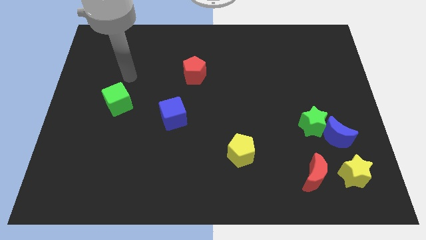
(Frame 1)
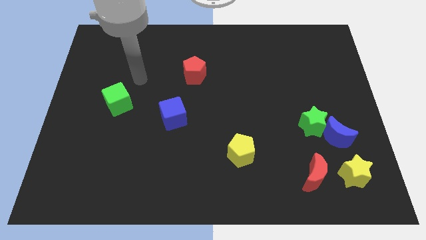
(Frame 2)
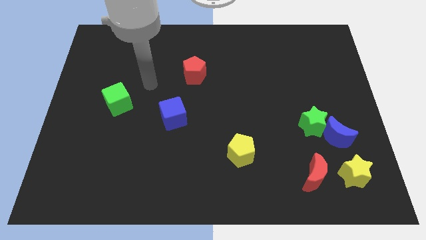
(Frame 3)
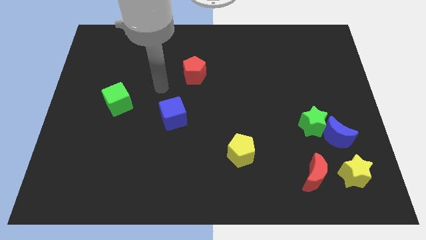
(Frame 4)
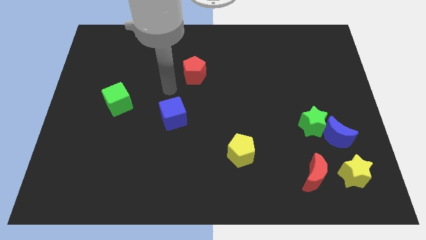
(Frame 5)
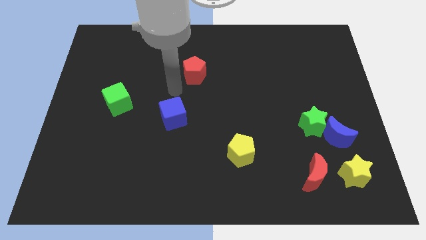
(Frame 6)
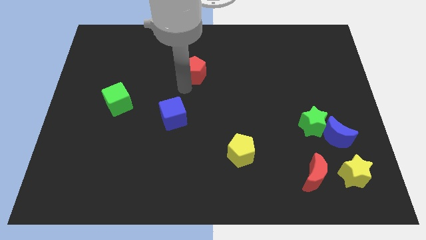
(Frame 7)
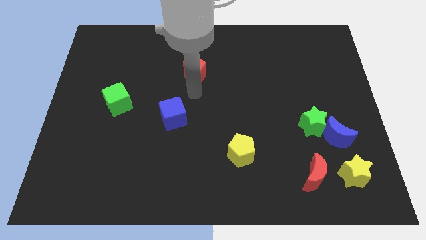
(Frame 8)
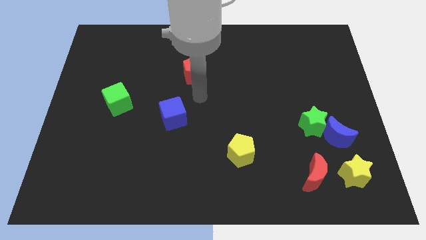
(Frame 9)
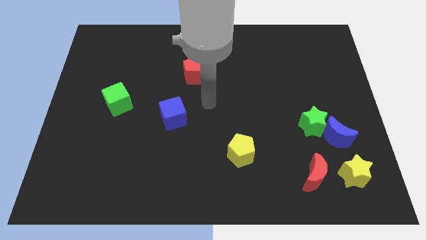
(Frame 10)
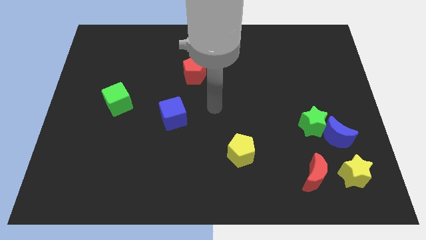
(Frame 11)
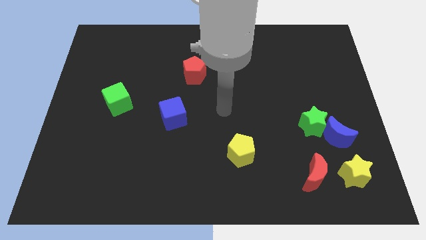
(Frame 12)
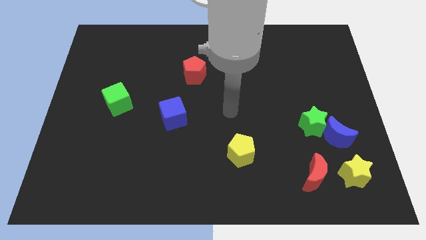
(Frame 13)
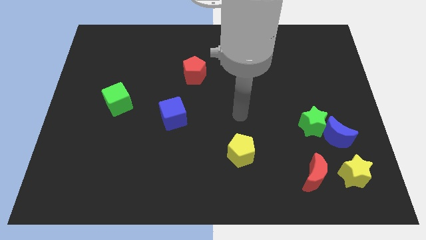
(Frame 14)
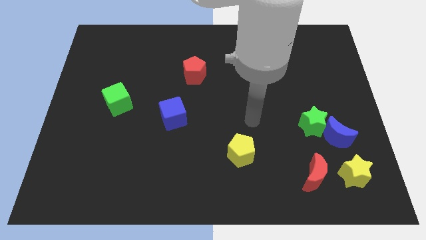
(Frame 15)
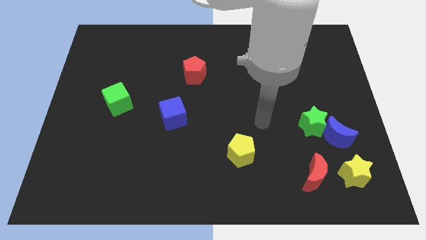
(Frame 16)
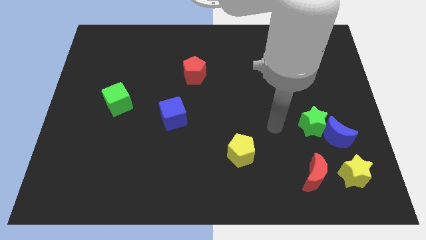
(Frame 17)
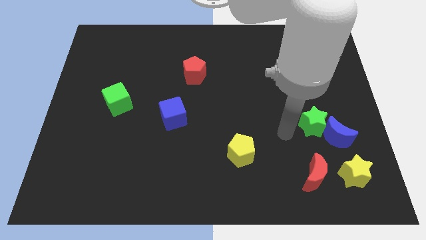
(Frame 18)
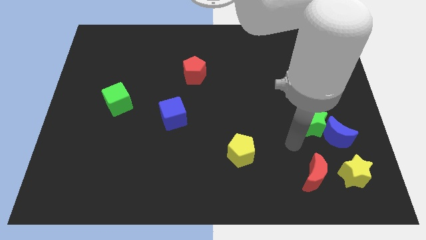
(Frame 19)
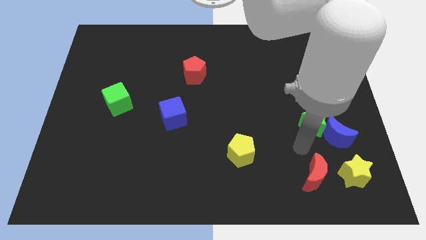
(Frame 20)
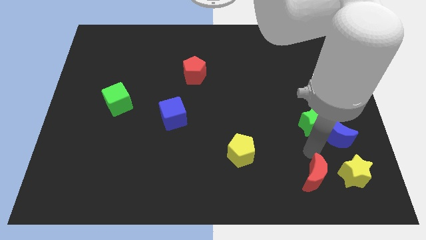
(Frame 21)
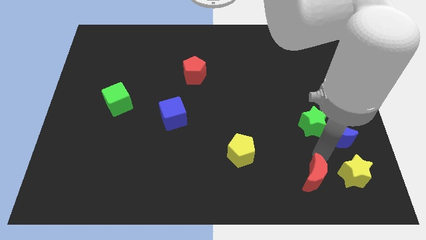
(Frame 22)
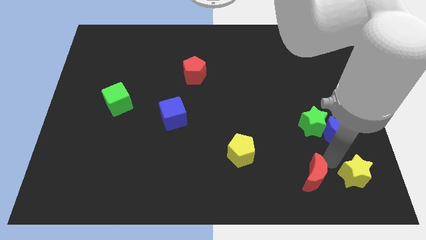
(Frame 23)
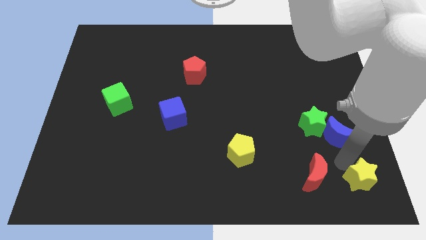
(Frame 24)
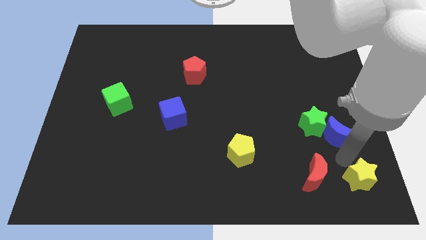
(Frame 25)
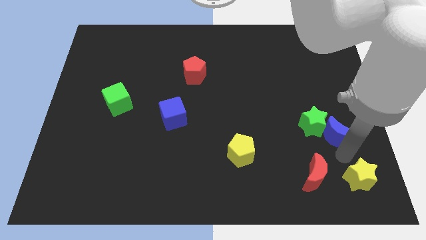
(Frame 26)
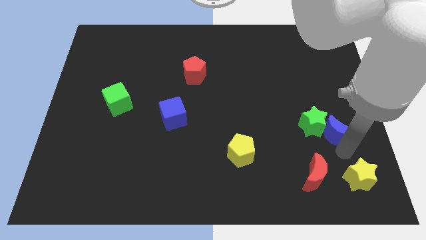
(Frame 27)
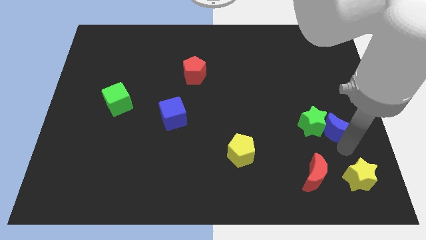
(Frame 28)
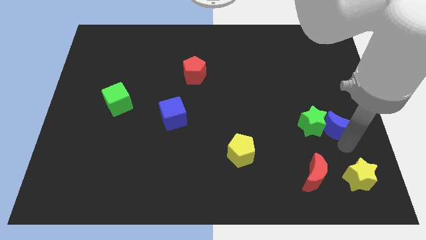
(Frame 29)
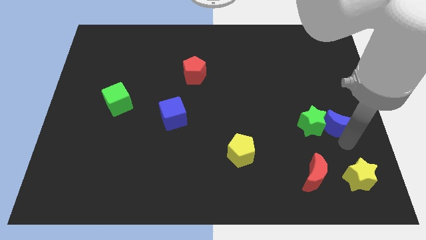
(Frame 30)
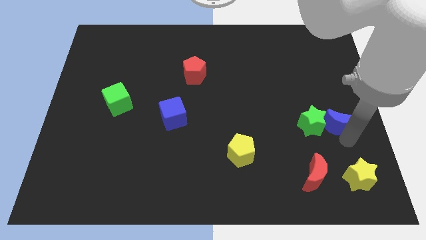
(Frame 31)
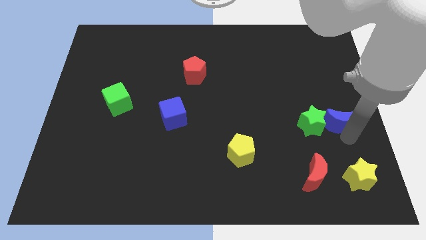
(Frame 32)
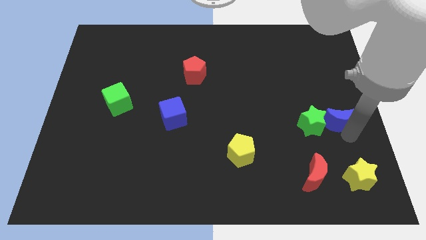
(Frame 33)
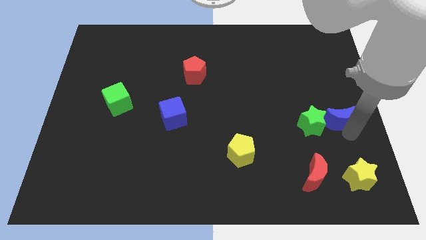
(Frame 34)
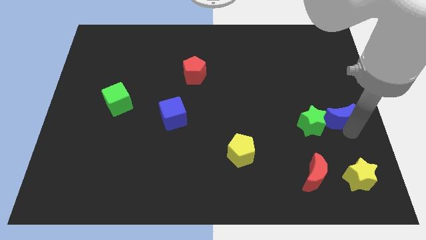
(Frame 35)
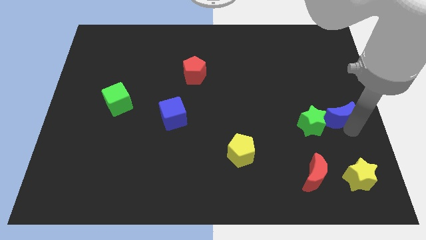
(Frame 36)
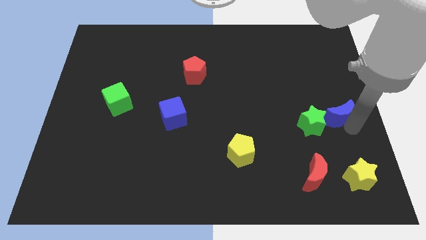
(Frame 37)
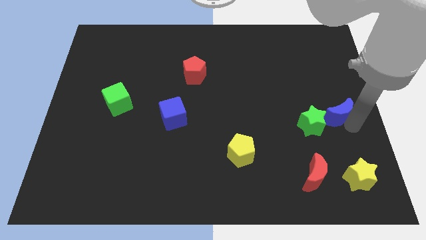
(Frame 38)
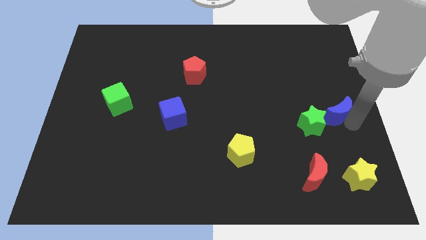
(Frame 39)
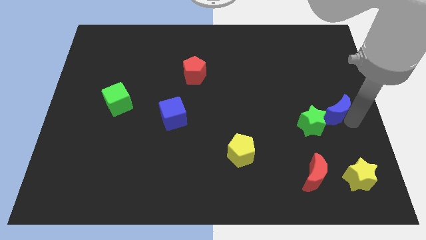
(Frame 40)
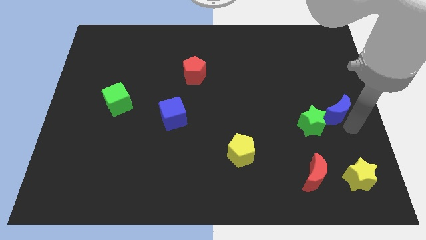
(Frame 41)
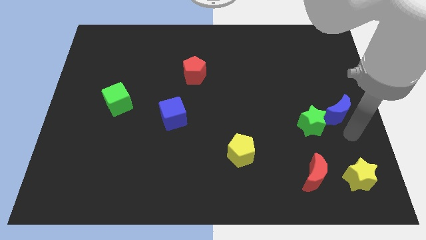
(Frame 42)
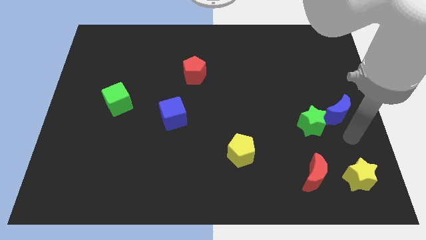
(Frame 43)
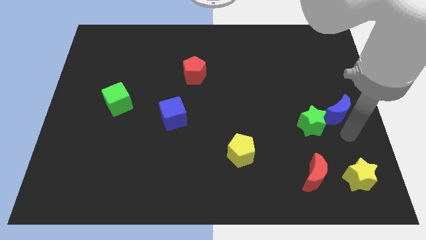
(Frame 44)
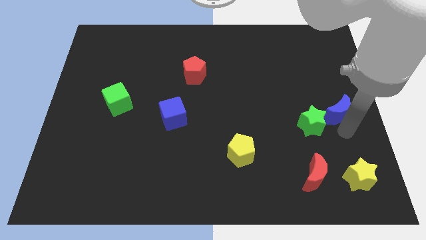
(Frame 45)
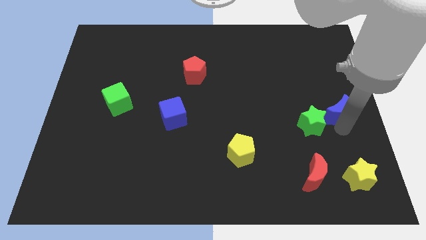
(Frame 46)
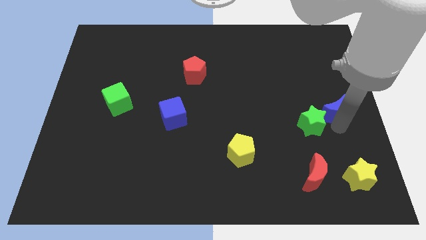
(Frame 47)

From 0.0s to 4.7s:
move the blue moon up somewhat

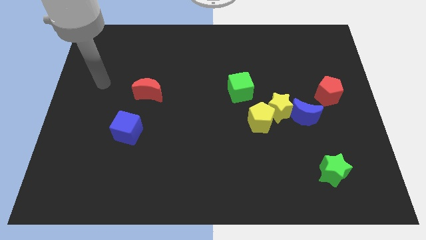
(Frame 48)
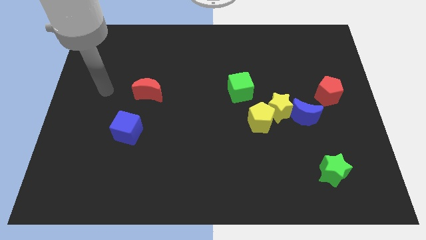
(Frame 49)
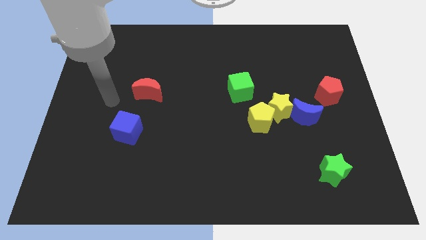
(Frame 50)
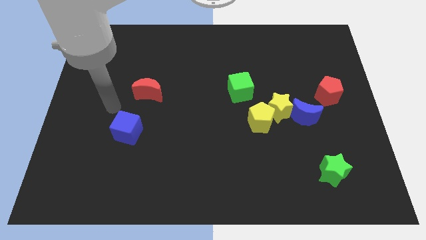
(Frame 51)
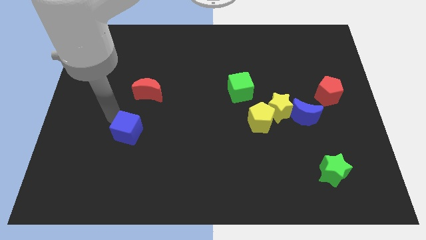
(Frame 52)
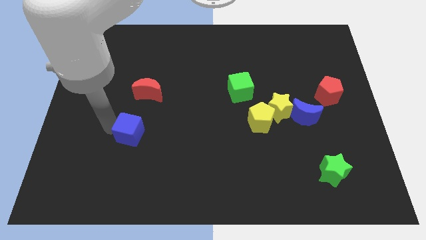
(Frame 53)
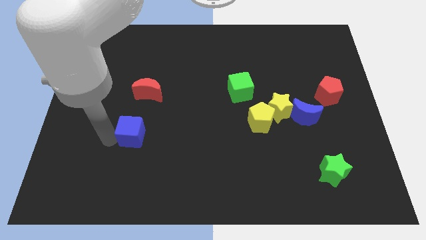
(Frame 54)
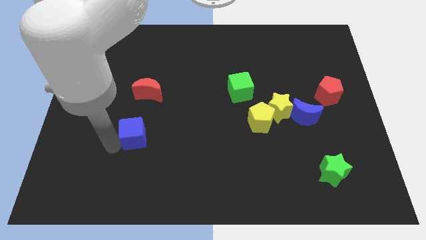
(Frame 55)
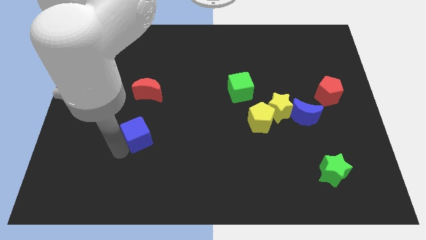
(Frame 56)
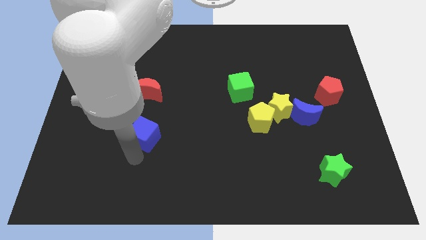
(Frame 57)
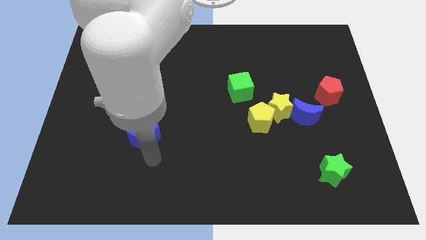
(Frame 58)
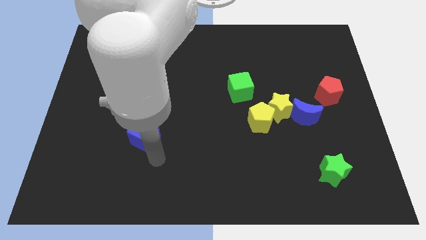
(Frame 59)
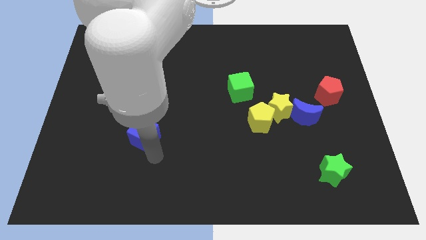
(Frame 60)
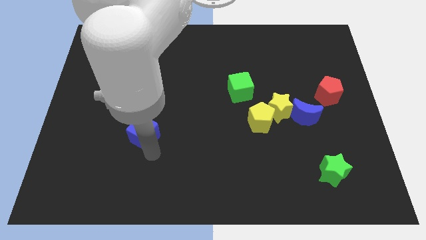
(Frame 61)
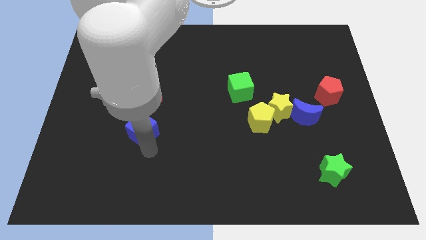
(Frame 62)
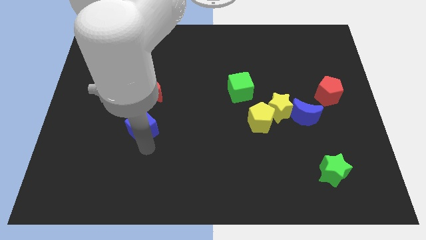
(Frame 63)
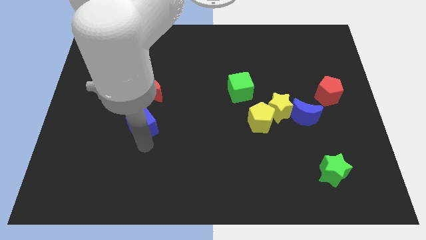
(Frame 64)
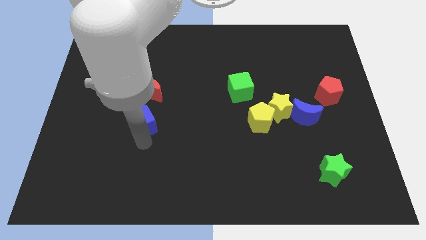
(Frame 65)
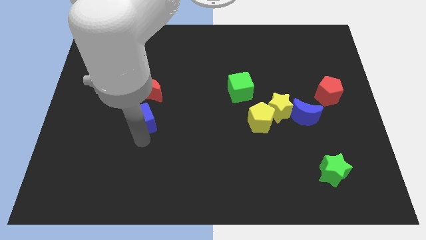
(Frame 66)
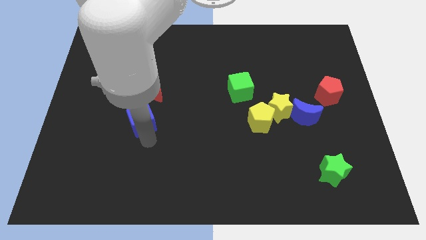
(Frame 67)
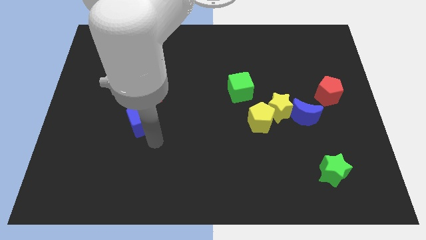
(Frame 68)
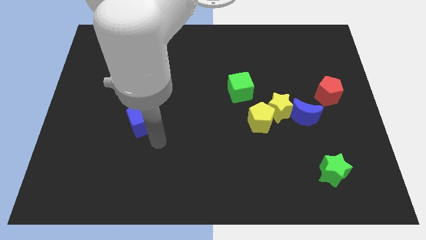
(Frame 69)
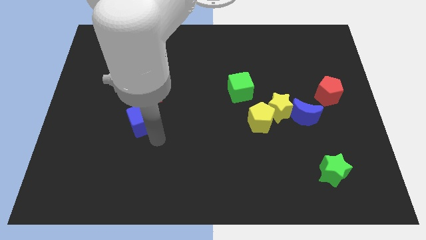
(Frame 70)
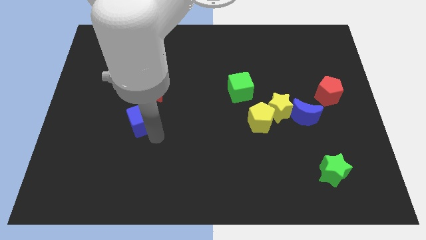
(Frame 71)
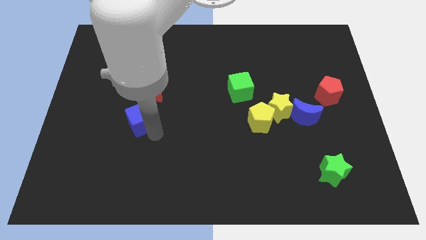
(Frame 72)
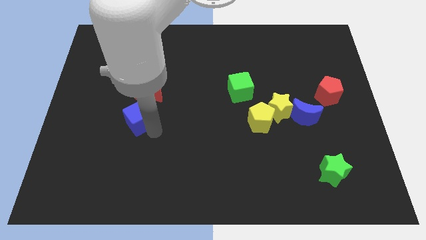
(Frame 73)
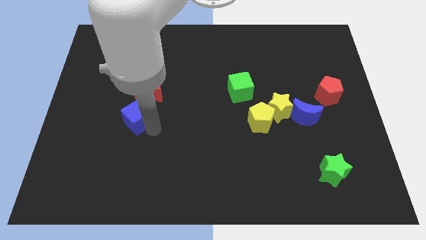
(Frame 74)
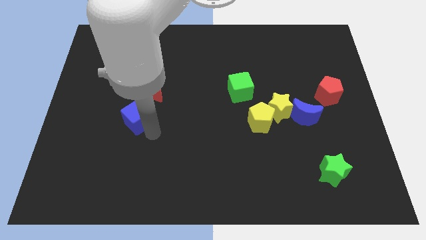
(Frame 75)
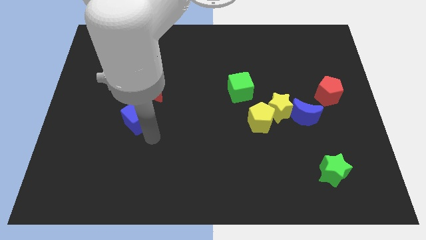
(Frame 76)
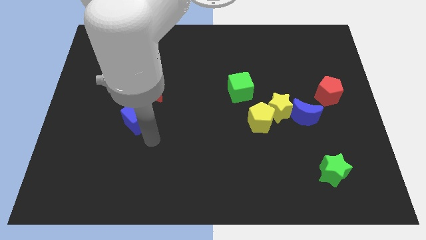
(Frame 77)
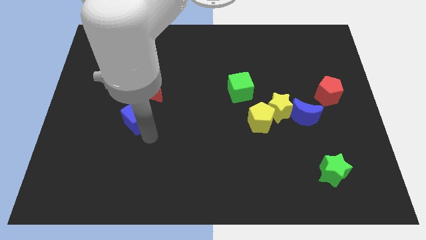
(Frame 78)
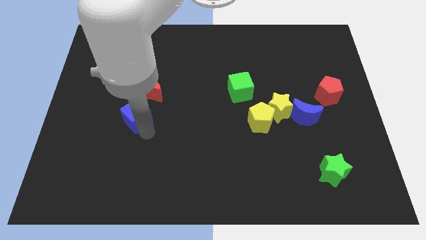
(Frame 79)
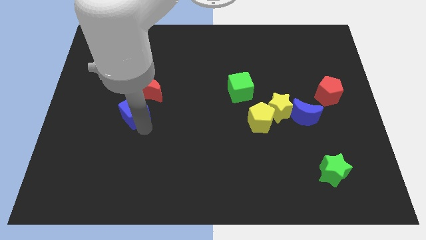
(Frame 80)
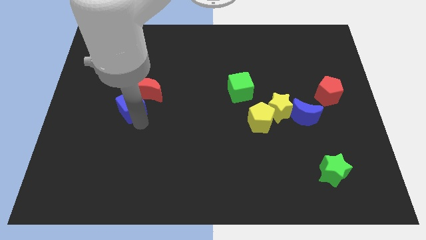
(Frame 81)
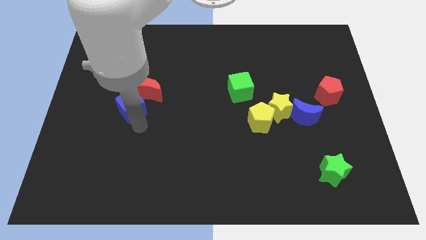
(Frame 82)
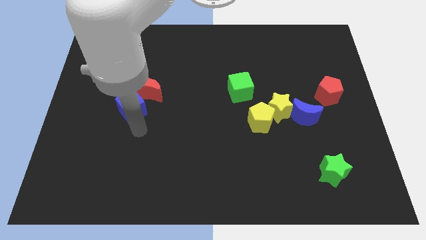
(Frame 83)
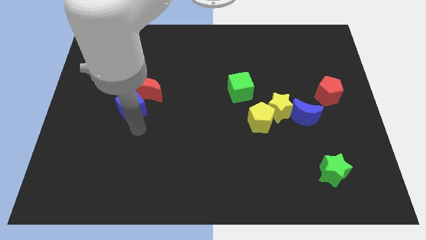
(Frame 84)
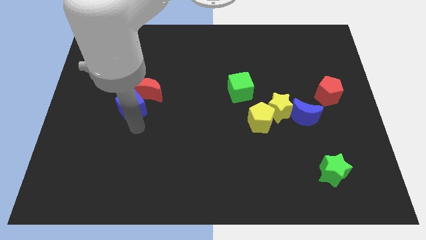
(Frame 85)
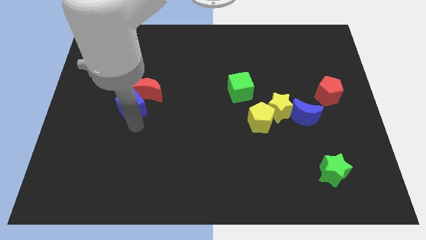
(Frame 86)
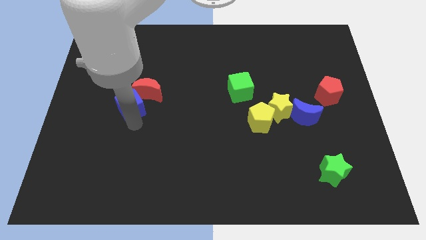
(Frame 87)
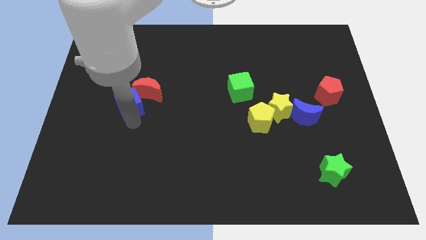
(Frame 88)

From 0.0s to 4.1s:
slide the blue cube a little upwards
